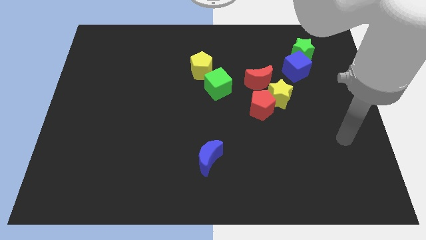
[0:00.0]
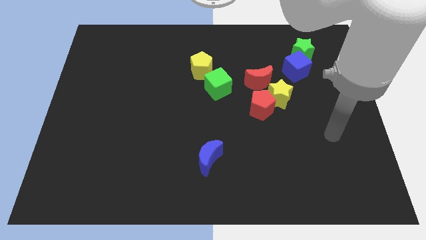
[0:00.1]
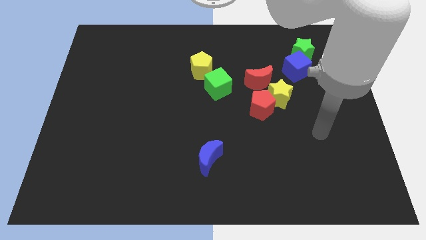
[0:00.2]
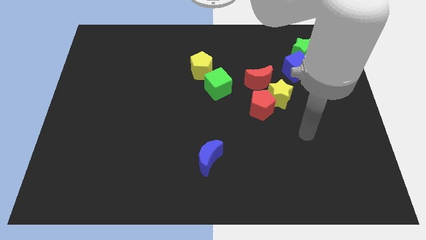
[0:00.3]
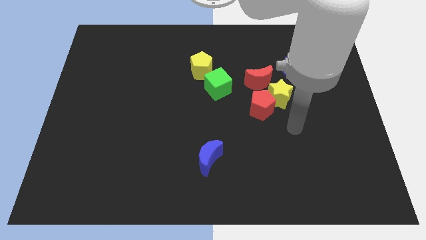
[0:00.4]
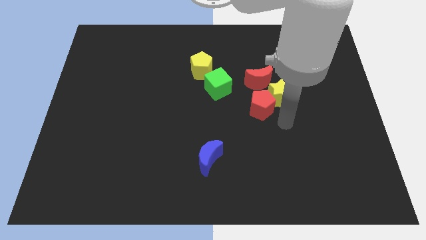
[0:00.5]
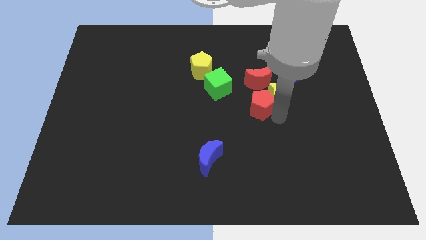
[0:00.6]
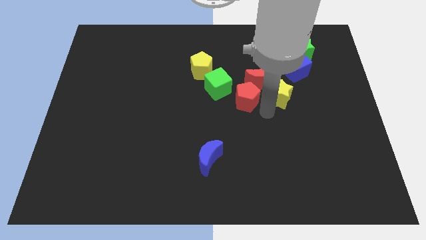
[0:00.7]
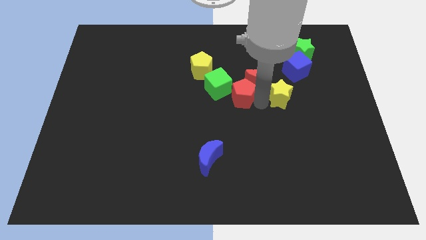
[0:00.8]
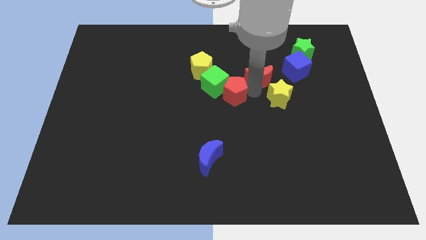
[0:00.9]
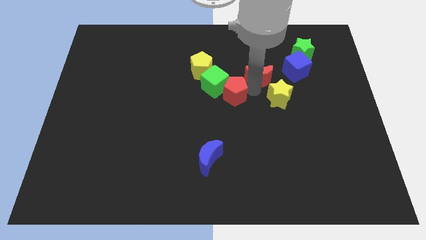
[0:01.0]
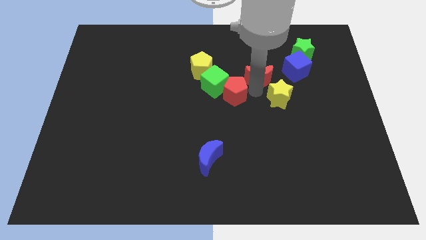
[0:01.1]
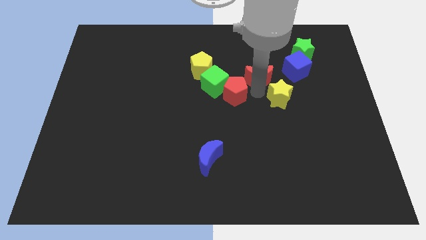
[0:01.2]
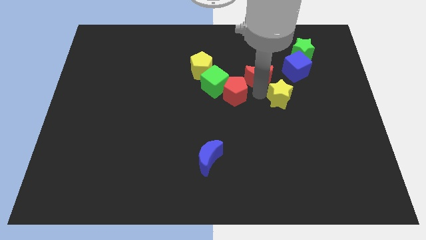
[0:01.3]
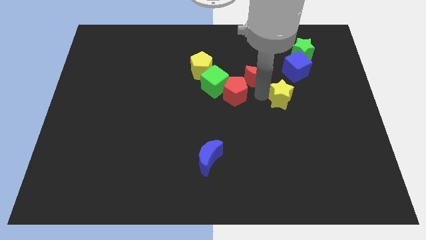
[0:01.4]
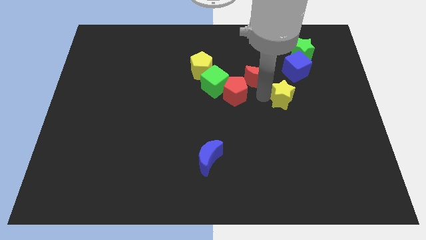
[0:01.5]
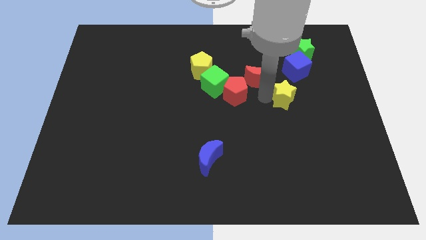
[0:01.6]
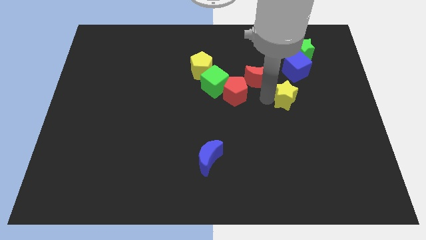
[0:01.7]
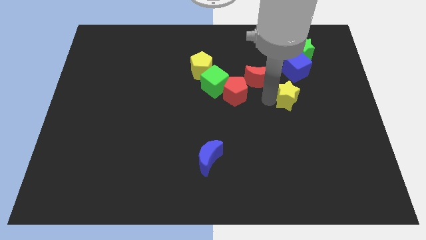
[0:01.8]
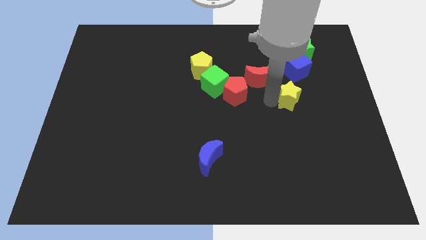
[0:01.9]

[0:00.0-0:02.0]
pull the yellow star apart from the red pentagon and red moon

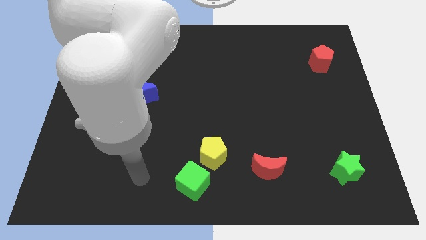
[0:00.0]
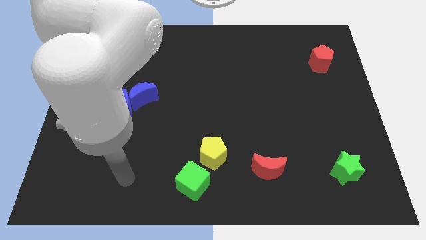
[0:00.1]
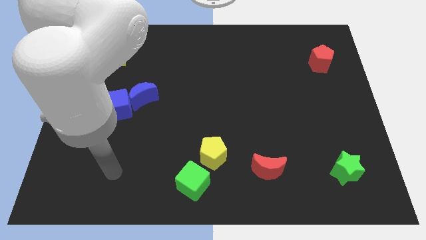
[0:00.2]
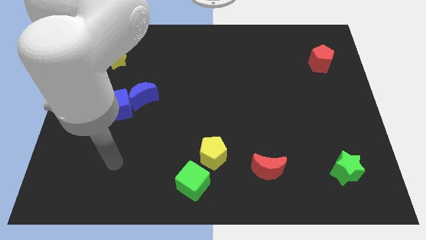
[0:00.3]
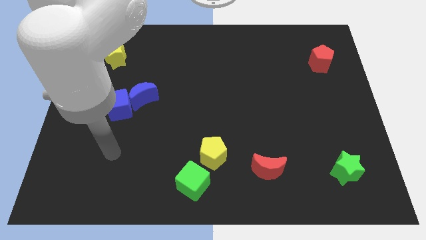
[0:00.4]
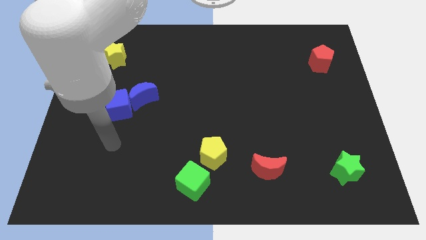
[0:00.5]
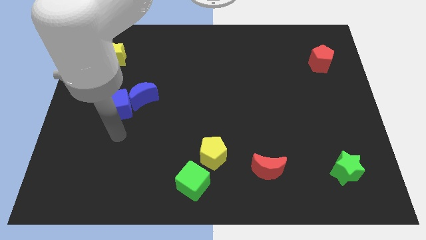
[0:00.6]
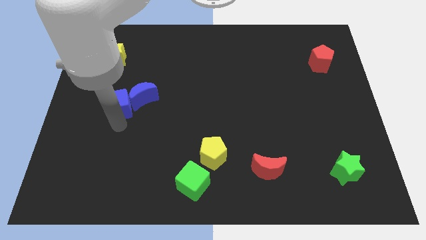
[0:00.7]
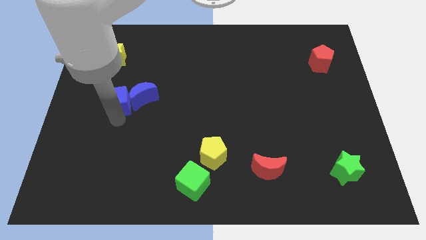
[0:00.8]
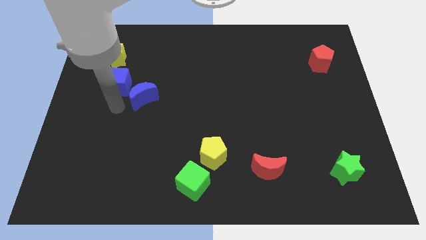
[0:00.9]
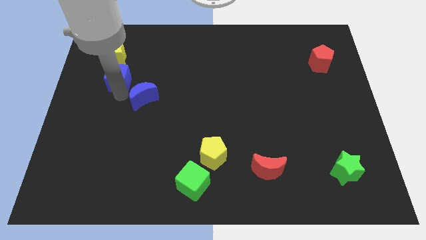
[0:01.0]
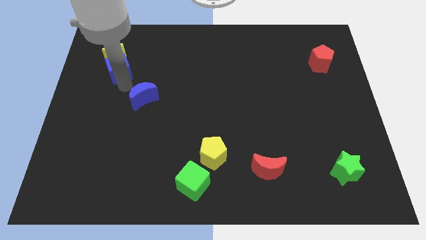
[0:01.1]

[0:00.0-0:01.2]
pull the blue moon apart from the blue cube

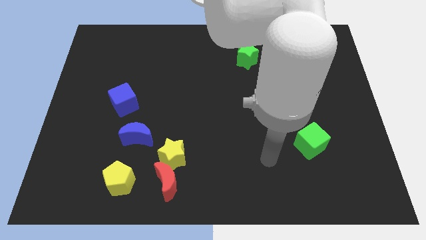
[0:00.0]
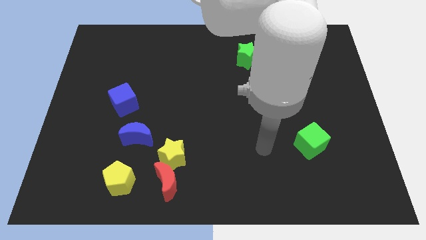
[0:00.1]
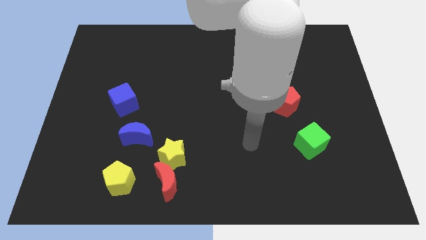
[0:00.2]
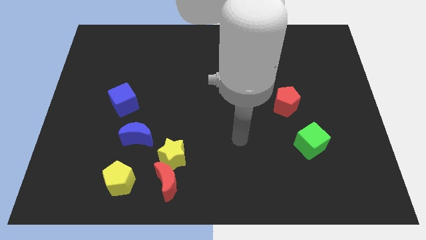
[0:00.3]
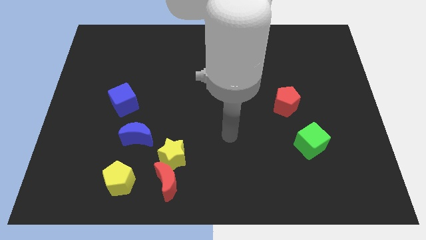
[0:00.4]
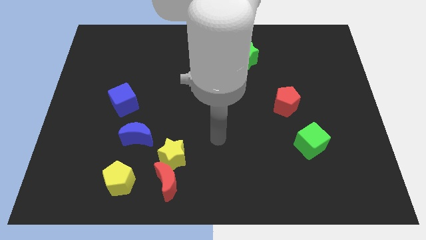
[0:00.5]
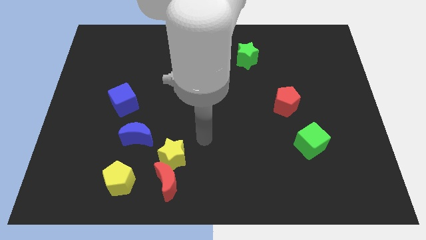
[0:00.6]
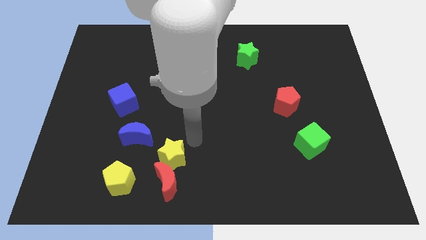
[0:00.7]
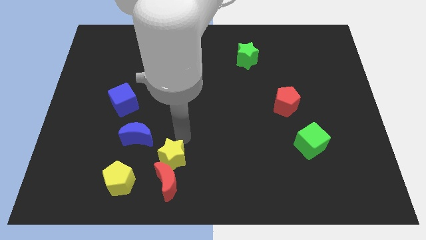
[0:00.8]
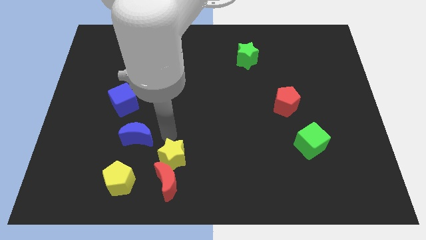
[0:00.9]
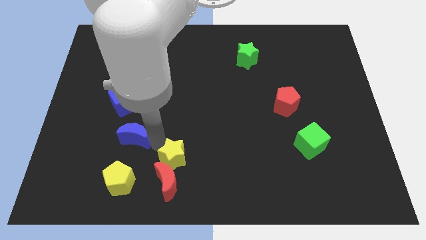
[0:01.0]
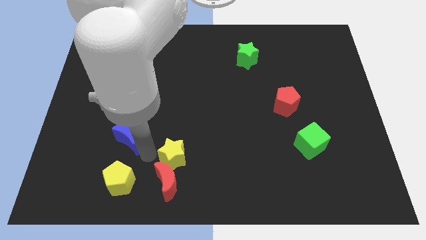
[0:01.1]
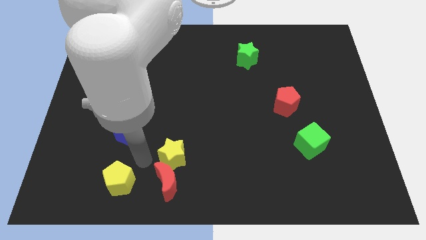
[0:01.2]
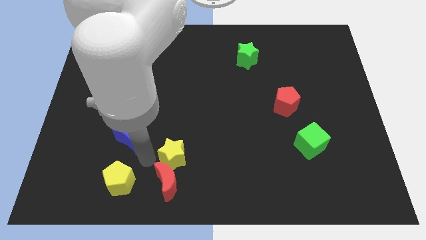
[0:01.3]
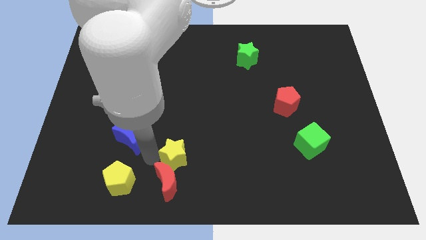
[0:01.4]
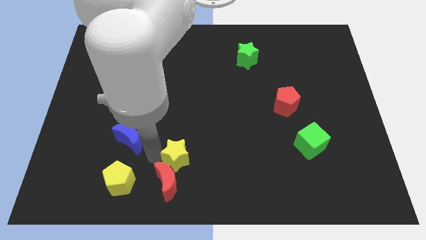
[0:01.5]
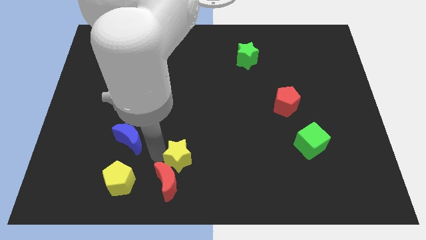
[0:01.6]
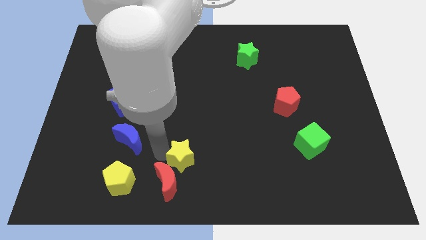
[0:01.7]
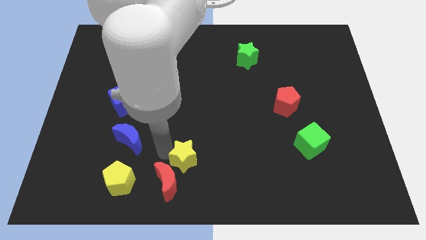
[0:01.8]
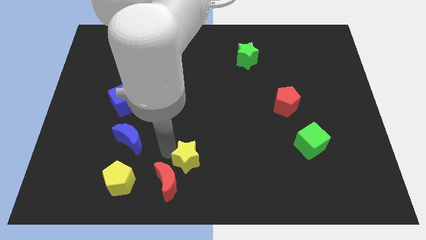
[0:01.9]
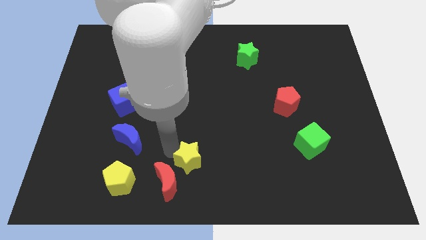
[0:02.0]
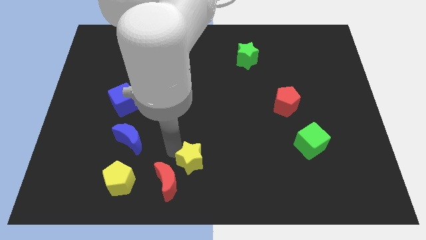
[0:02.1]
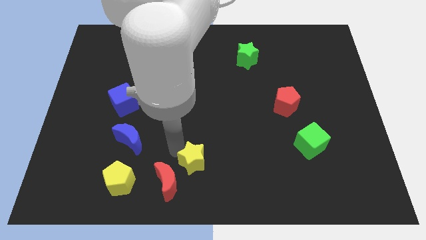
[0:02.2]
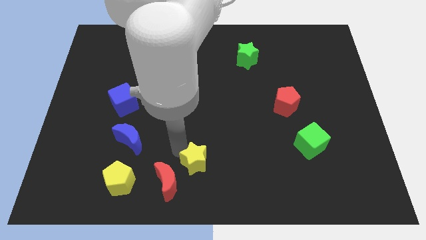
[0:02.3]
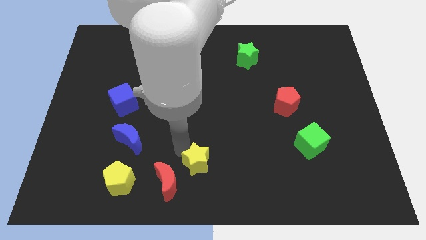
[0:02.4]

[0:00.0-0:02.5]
separate the yellow star from the red moon and blue moon

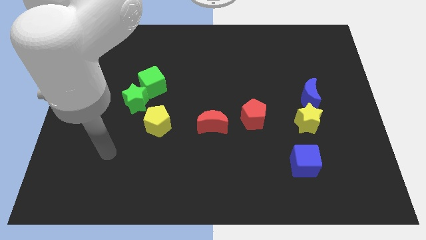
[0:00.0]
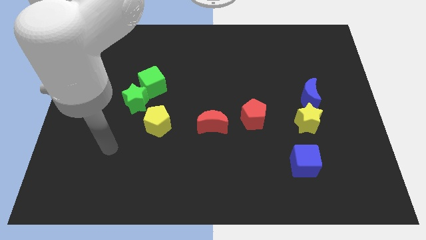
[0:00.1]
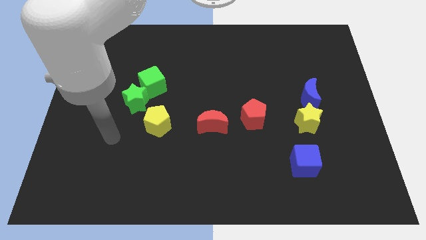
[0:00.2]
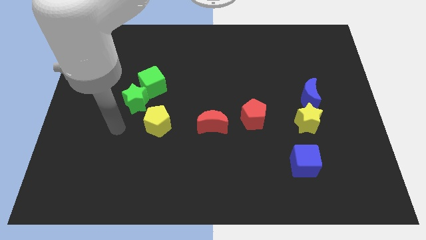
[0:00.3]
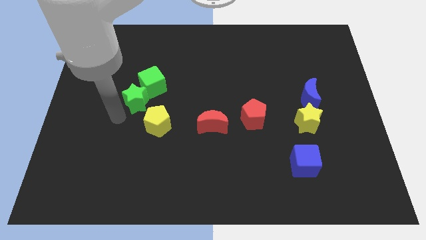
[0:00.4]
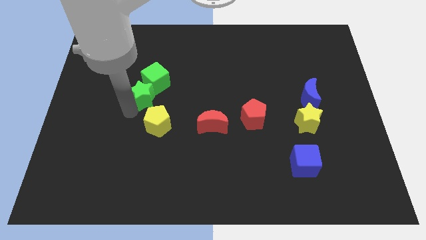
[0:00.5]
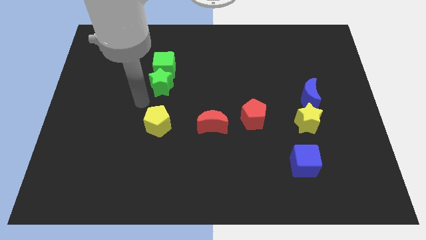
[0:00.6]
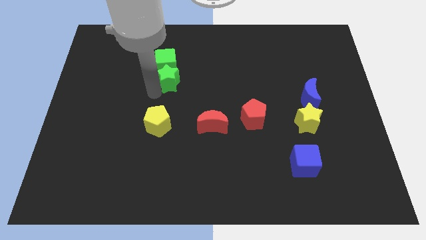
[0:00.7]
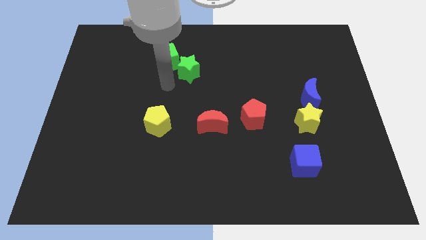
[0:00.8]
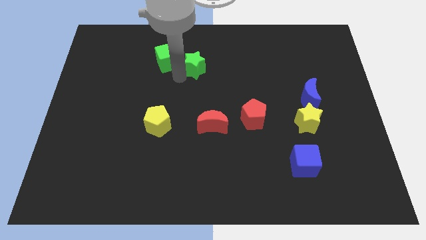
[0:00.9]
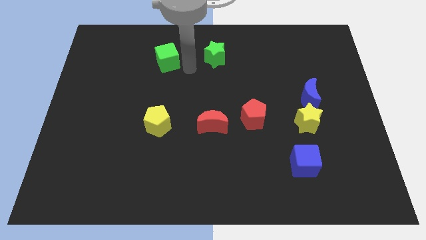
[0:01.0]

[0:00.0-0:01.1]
pull the green cube apart from the green star

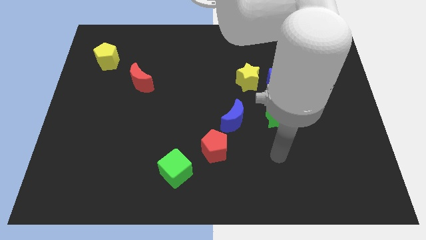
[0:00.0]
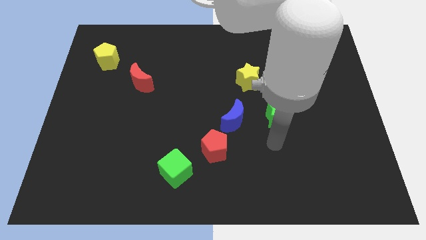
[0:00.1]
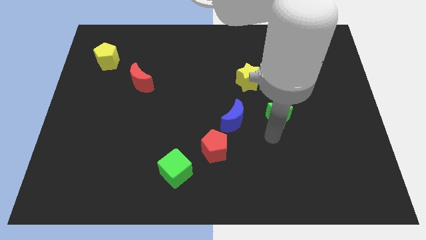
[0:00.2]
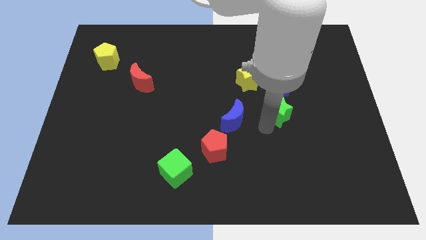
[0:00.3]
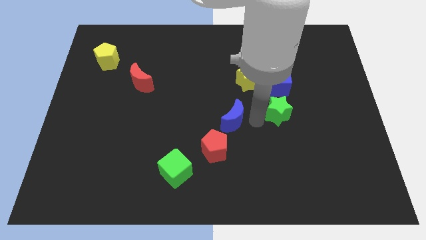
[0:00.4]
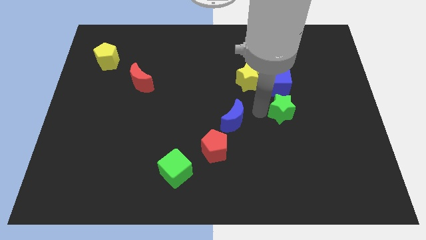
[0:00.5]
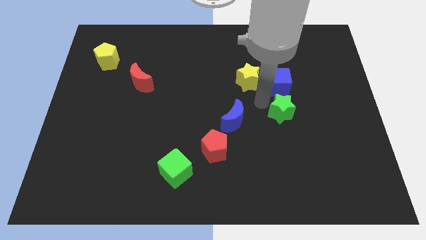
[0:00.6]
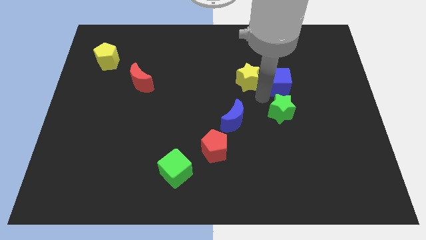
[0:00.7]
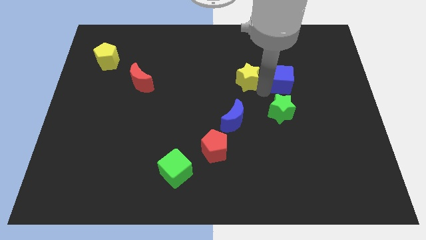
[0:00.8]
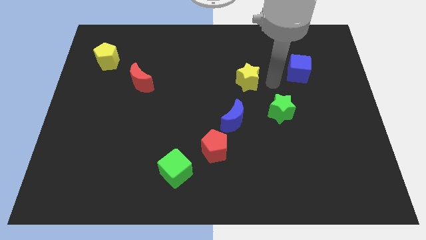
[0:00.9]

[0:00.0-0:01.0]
move the yellow star away from the blue cube

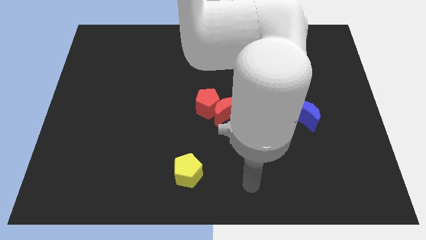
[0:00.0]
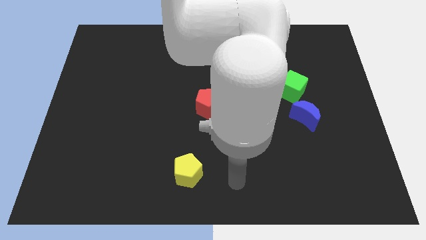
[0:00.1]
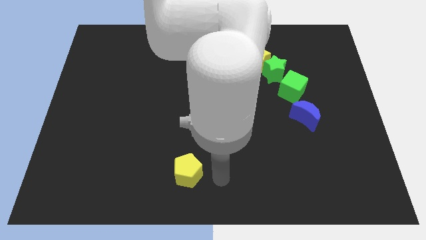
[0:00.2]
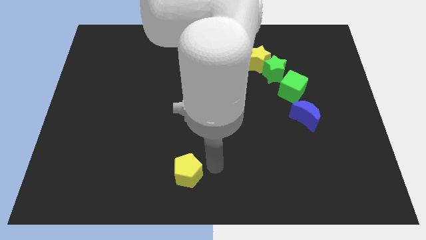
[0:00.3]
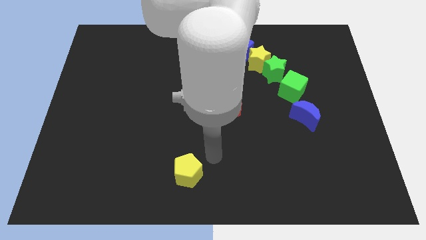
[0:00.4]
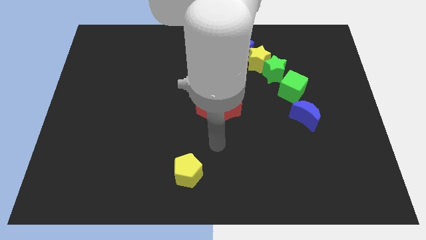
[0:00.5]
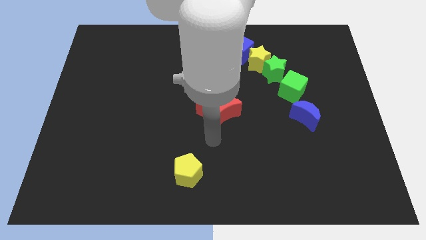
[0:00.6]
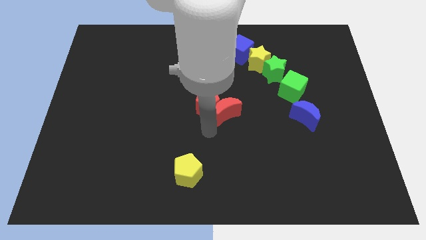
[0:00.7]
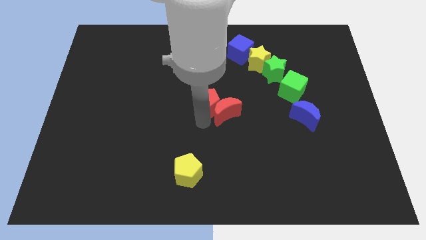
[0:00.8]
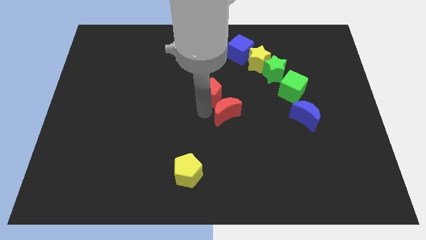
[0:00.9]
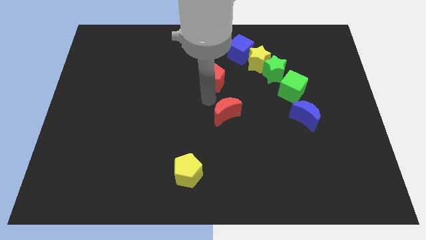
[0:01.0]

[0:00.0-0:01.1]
pull the red moon apart from the red pentagon

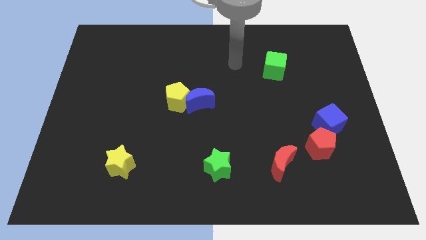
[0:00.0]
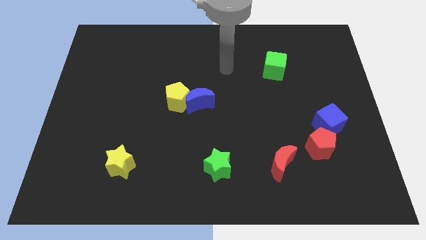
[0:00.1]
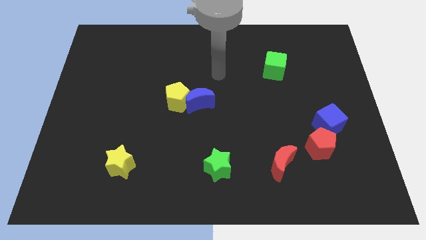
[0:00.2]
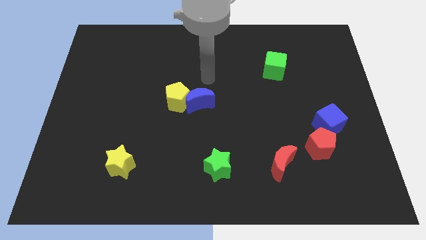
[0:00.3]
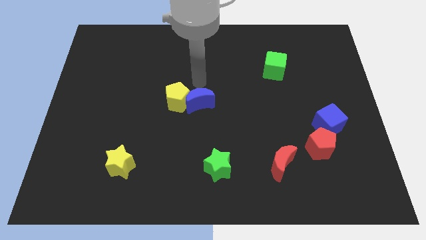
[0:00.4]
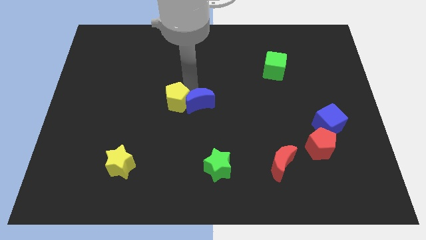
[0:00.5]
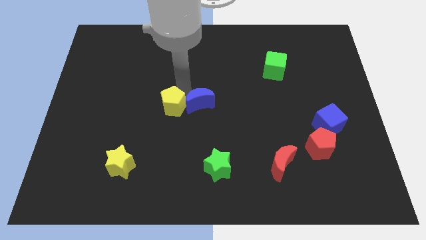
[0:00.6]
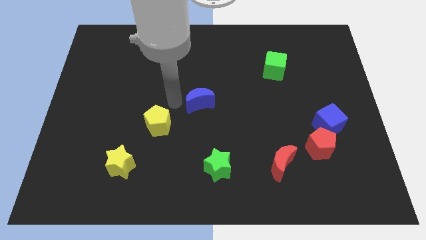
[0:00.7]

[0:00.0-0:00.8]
pull the blue moon apart from the yellow pentagon
